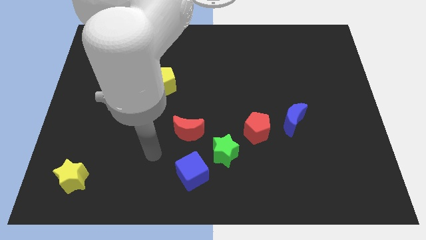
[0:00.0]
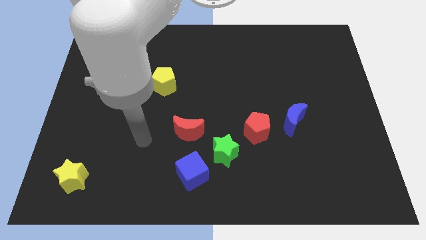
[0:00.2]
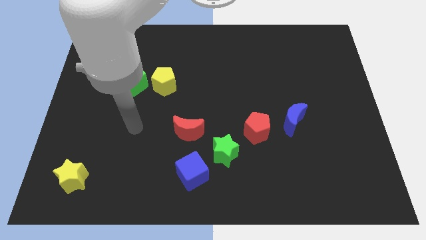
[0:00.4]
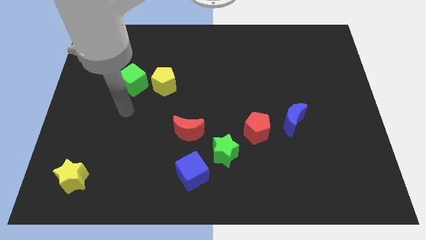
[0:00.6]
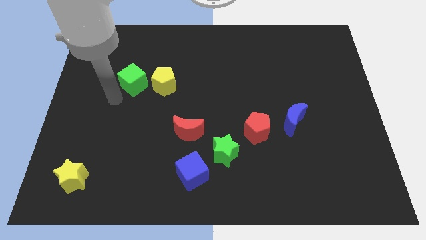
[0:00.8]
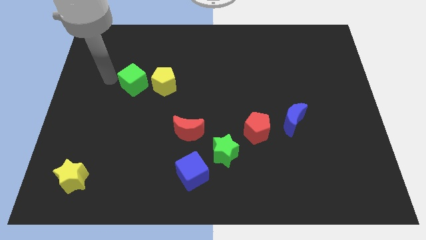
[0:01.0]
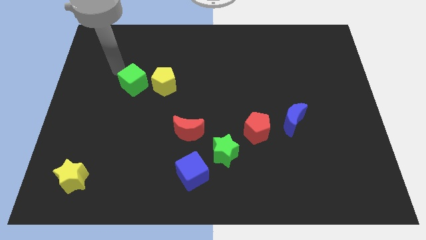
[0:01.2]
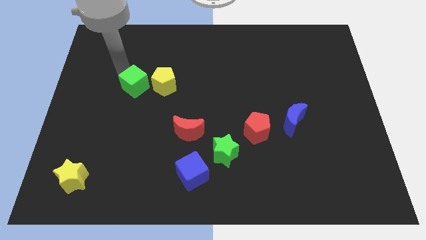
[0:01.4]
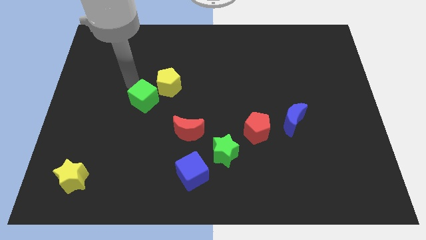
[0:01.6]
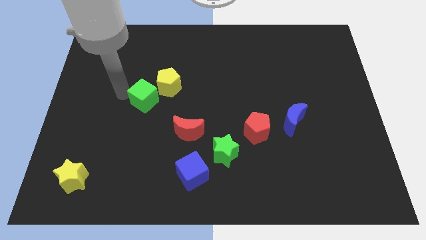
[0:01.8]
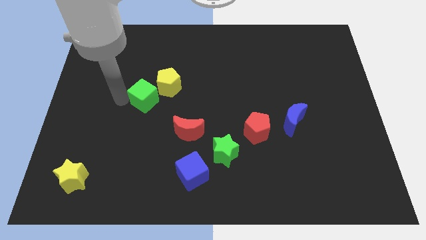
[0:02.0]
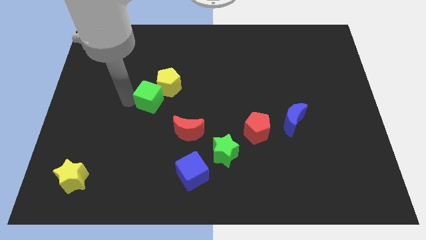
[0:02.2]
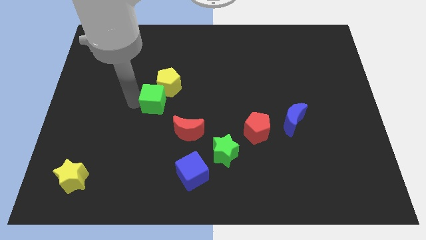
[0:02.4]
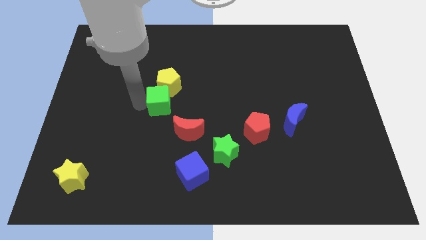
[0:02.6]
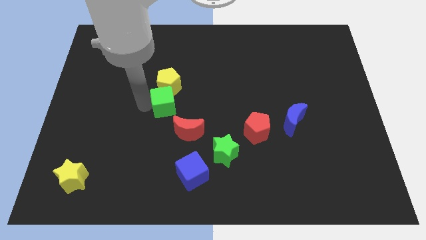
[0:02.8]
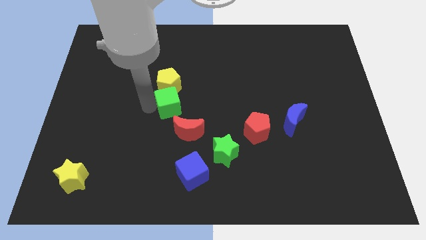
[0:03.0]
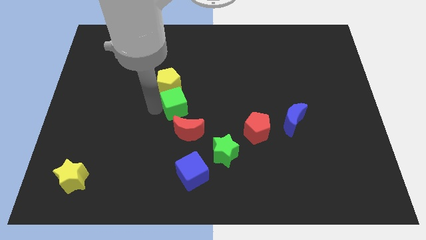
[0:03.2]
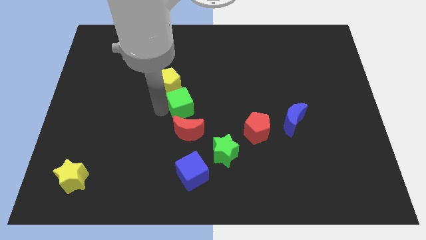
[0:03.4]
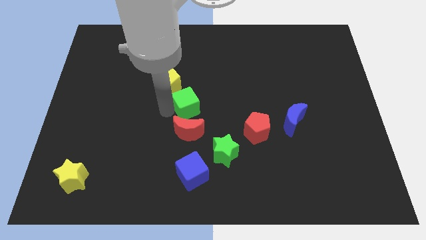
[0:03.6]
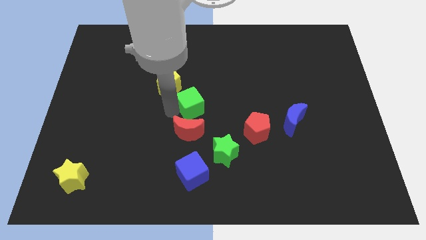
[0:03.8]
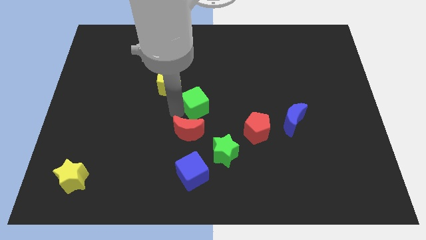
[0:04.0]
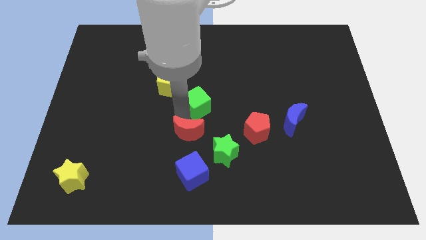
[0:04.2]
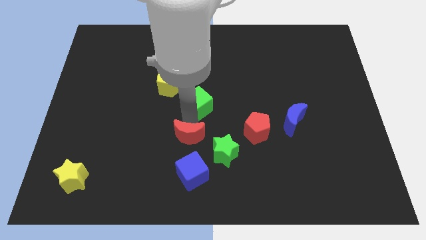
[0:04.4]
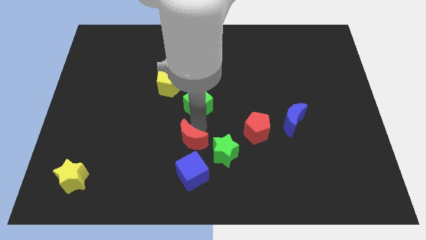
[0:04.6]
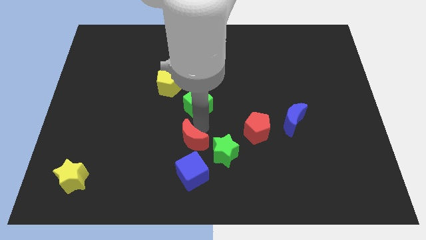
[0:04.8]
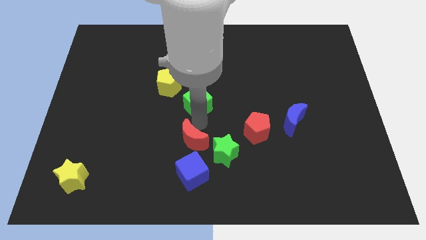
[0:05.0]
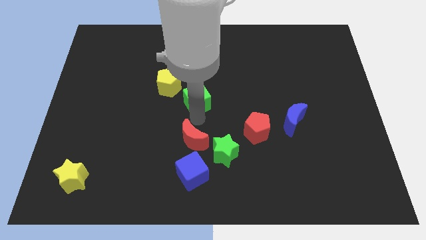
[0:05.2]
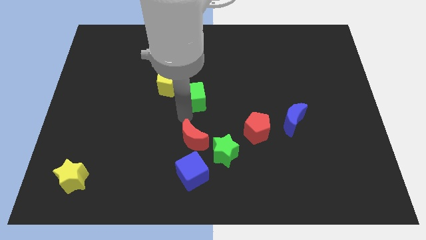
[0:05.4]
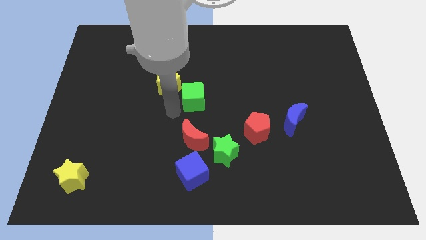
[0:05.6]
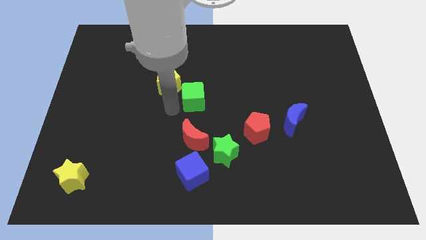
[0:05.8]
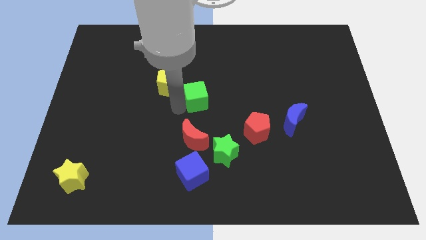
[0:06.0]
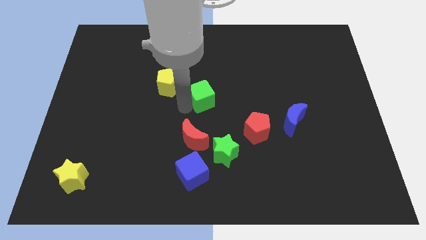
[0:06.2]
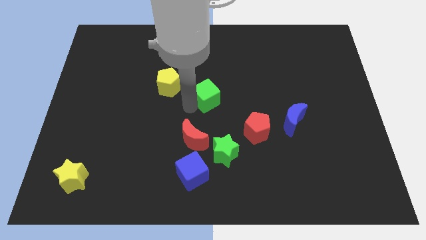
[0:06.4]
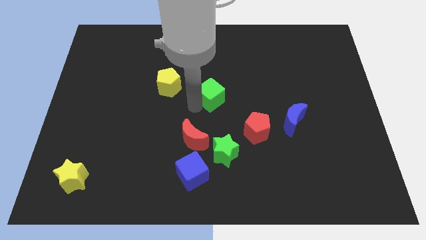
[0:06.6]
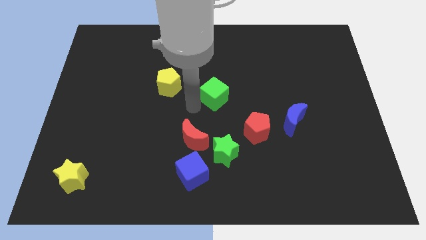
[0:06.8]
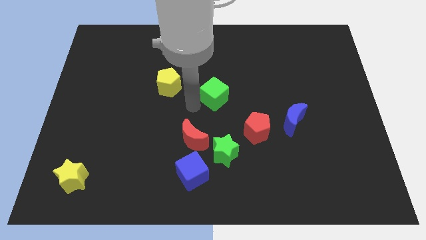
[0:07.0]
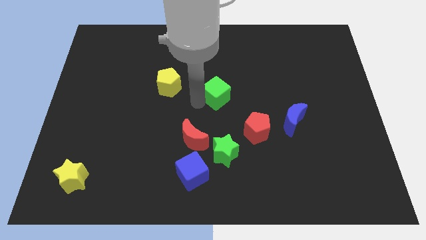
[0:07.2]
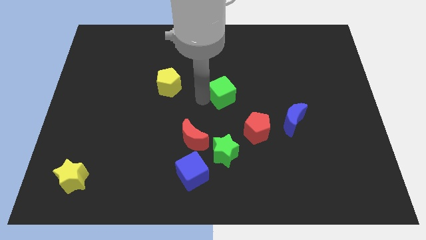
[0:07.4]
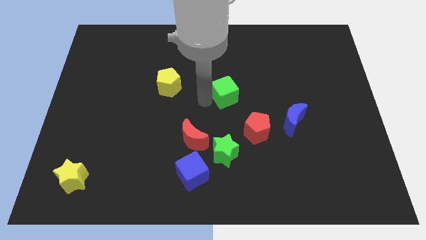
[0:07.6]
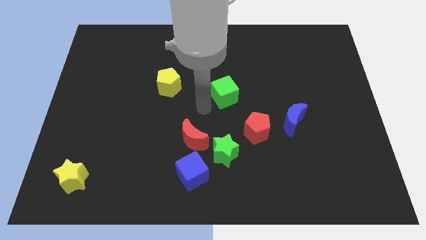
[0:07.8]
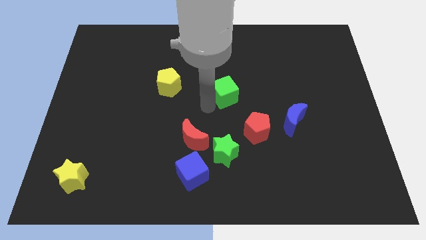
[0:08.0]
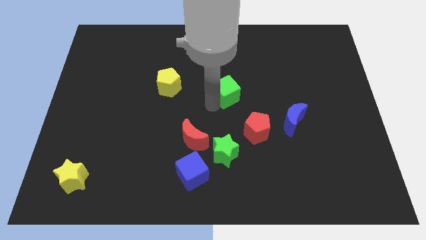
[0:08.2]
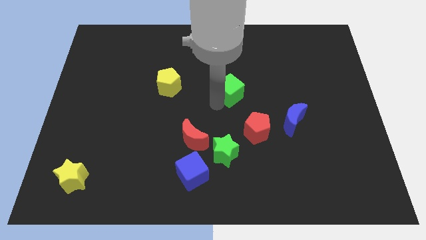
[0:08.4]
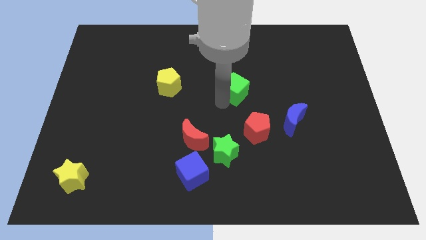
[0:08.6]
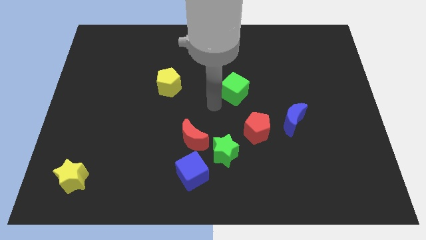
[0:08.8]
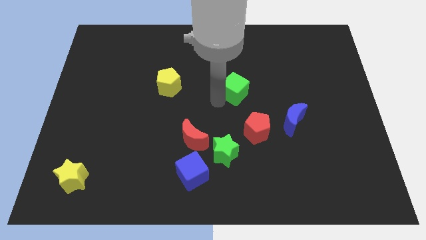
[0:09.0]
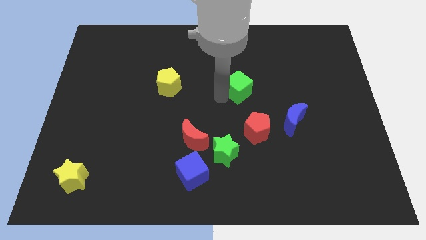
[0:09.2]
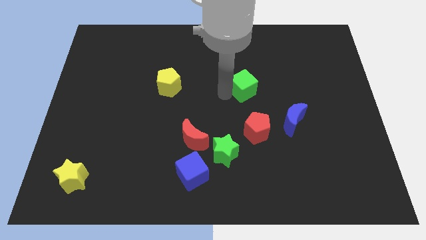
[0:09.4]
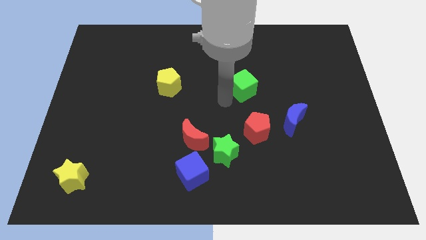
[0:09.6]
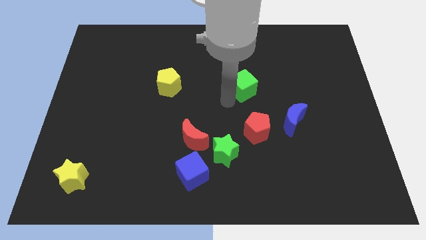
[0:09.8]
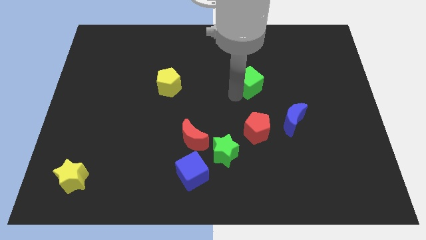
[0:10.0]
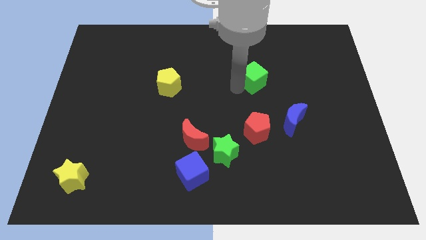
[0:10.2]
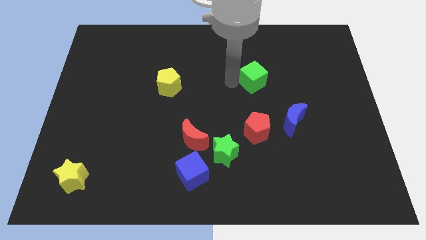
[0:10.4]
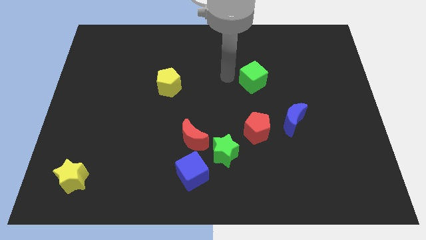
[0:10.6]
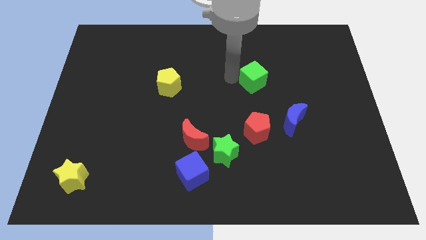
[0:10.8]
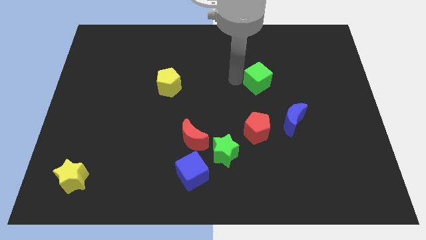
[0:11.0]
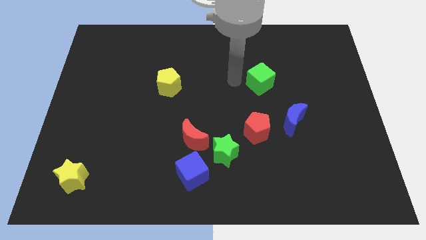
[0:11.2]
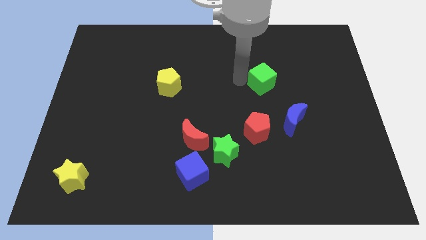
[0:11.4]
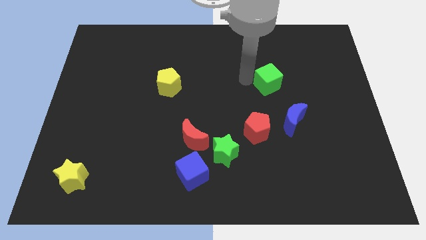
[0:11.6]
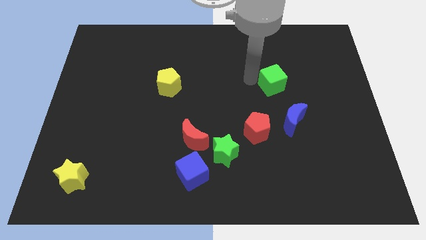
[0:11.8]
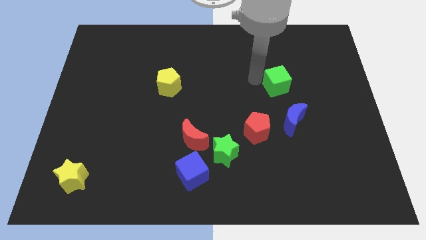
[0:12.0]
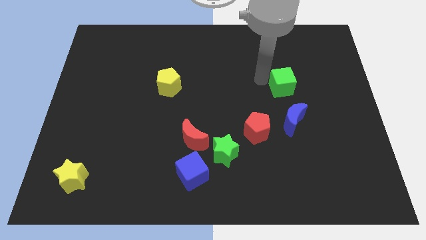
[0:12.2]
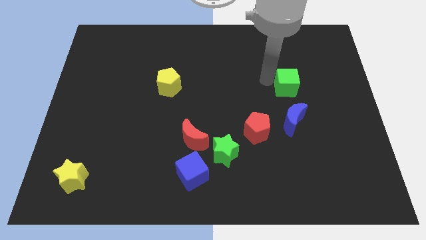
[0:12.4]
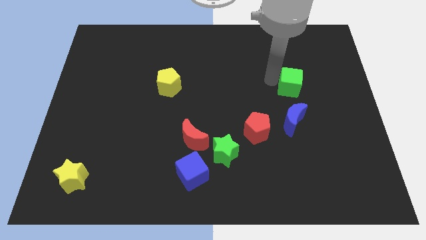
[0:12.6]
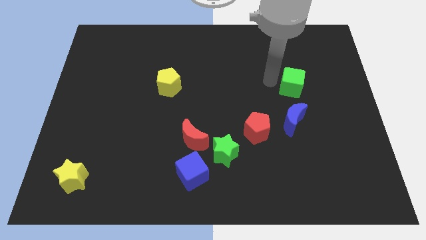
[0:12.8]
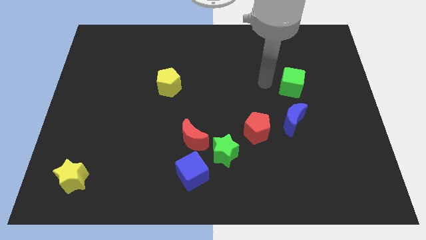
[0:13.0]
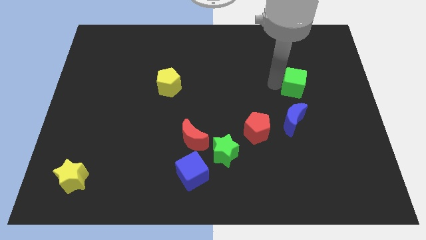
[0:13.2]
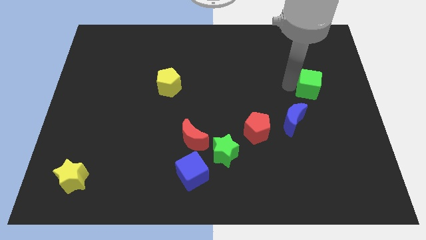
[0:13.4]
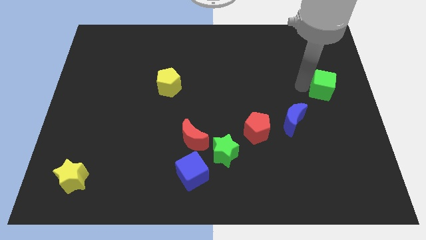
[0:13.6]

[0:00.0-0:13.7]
put the green cube to the center right
